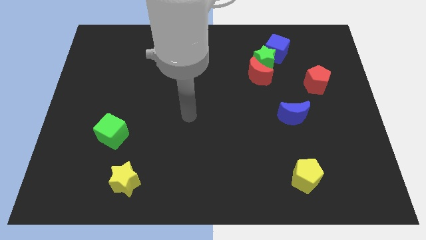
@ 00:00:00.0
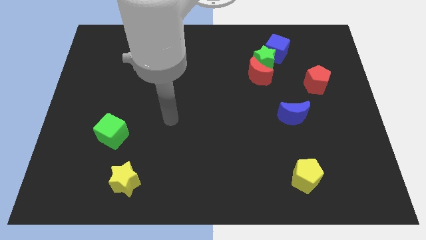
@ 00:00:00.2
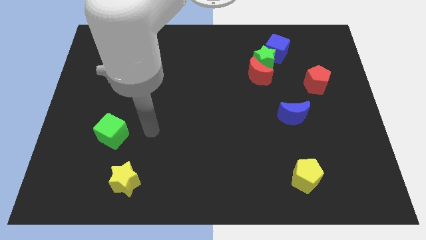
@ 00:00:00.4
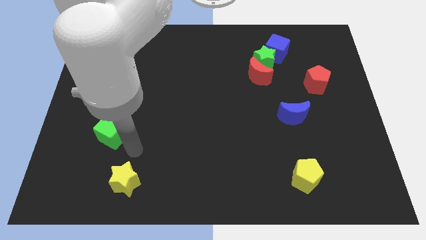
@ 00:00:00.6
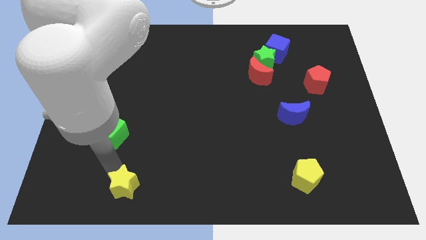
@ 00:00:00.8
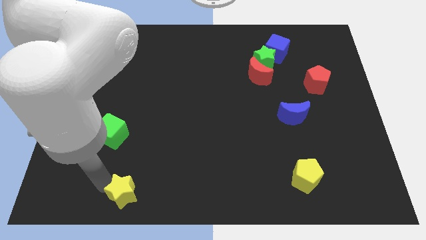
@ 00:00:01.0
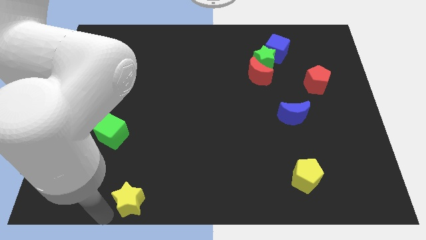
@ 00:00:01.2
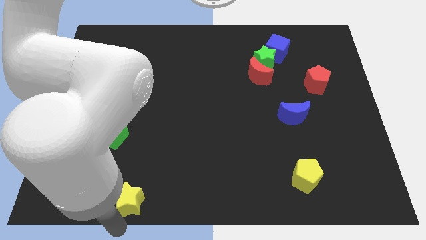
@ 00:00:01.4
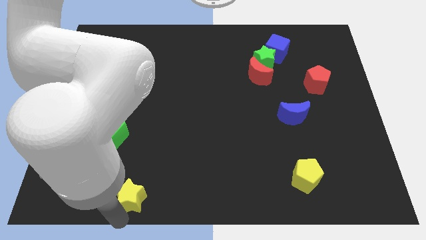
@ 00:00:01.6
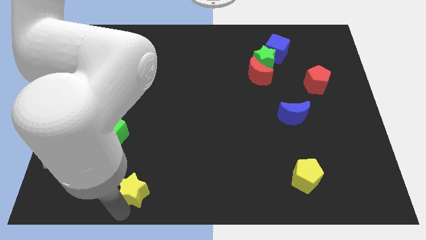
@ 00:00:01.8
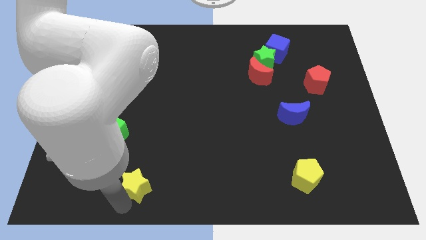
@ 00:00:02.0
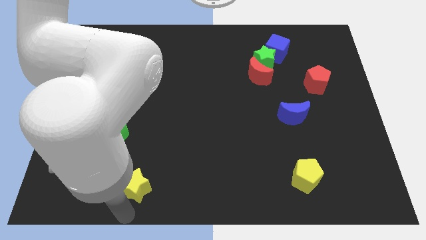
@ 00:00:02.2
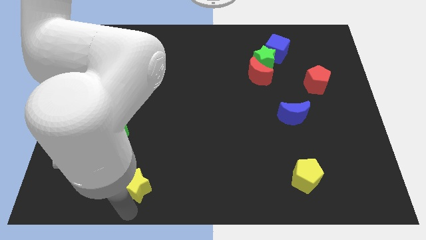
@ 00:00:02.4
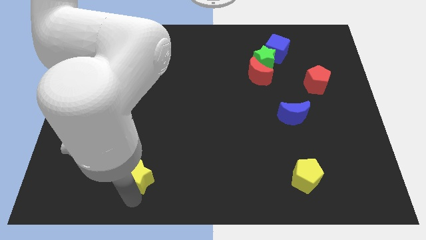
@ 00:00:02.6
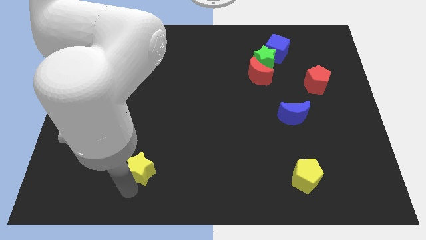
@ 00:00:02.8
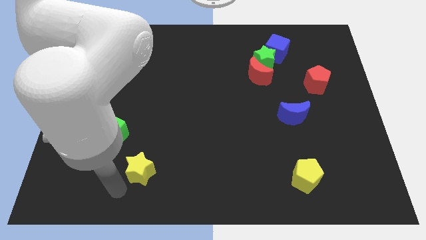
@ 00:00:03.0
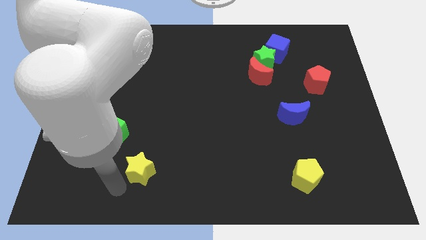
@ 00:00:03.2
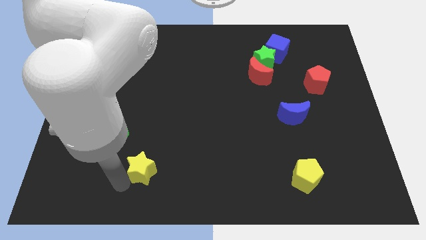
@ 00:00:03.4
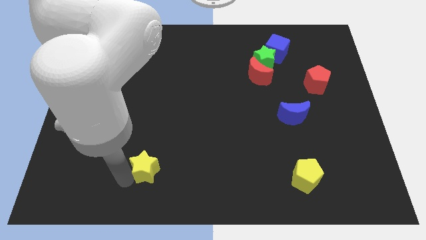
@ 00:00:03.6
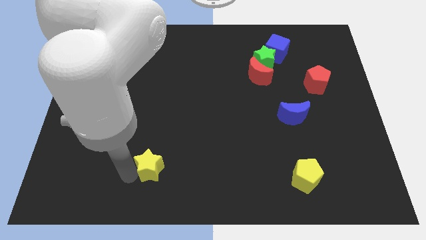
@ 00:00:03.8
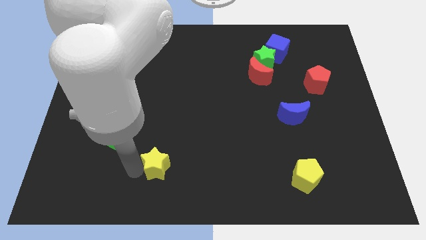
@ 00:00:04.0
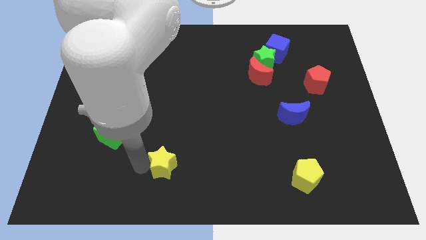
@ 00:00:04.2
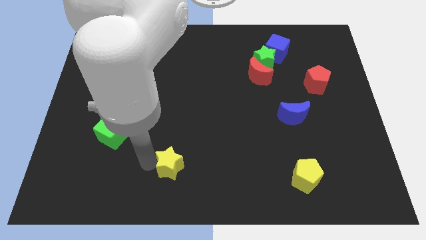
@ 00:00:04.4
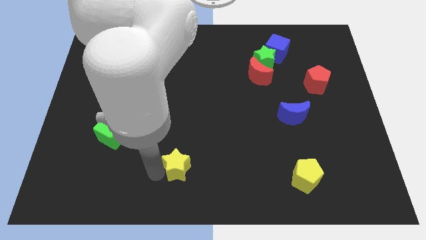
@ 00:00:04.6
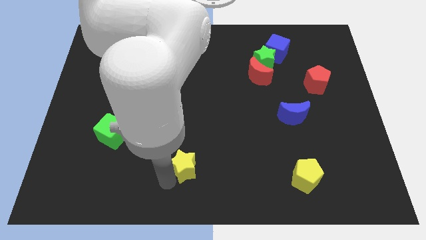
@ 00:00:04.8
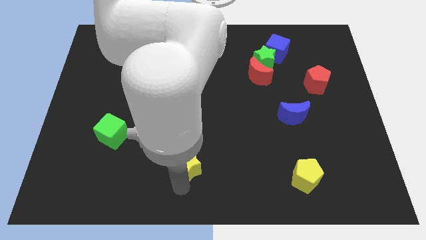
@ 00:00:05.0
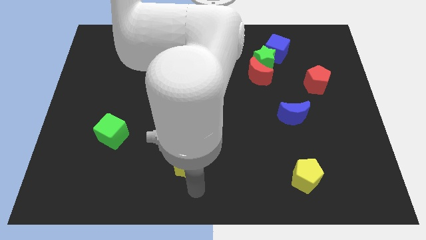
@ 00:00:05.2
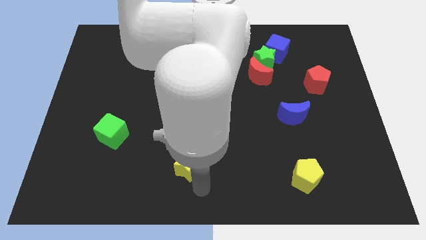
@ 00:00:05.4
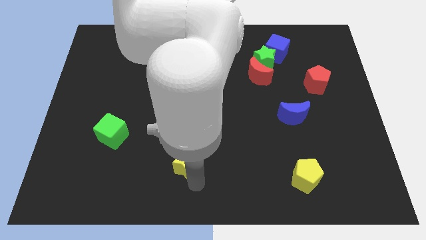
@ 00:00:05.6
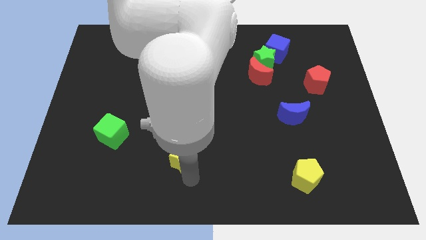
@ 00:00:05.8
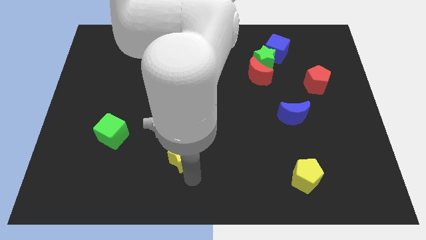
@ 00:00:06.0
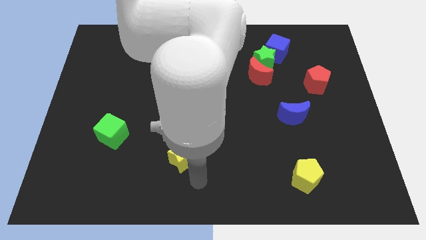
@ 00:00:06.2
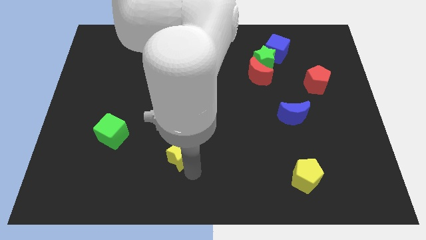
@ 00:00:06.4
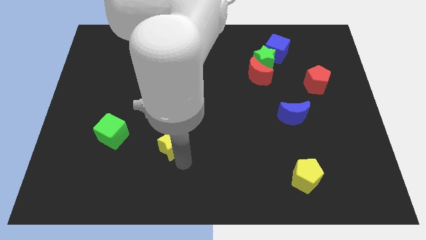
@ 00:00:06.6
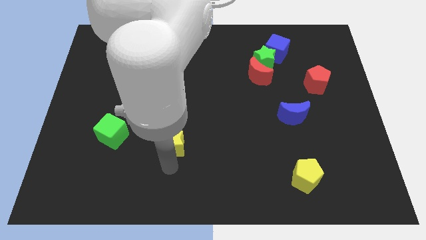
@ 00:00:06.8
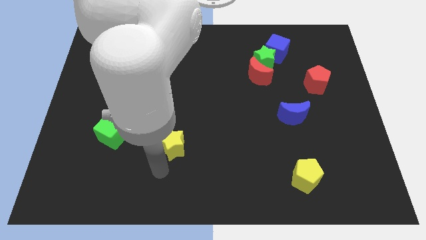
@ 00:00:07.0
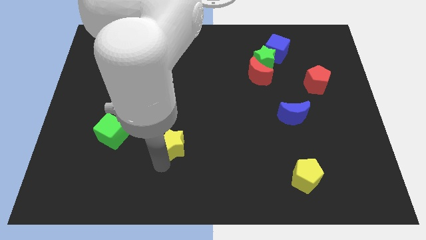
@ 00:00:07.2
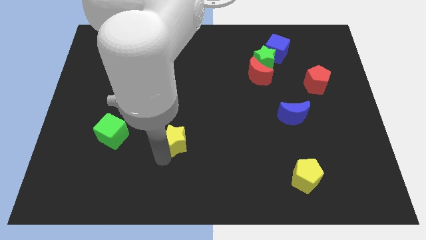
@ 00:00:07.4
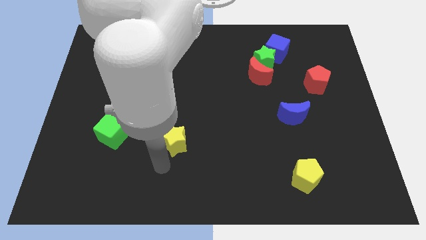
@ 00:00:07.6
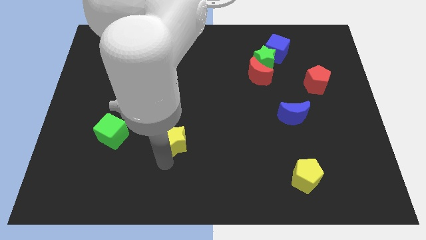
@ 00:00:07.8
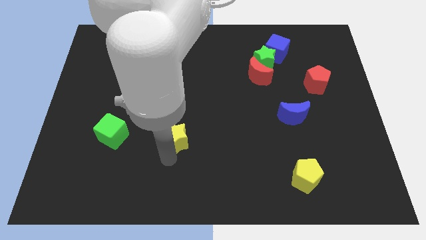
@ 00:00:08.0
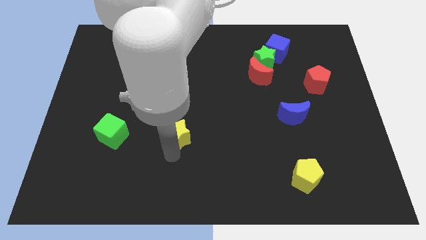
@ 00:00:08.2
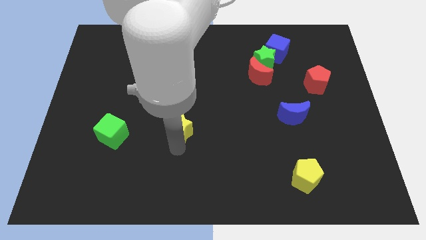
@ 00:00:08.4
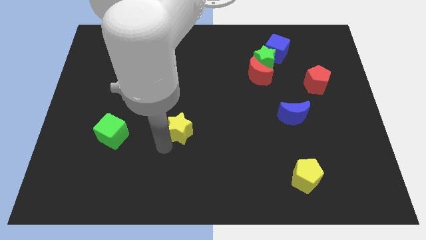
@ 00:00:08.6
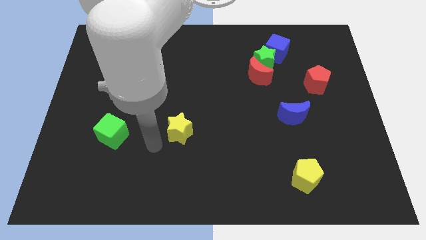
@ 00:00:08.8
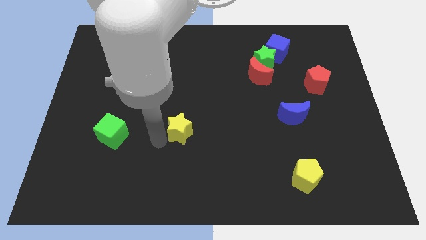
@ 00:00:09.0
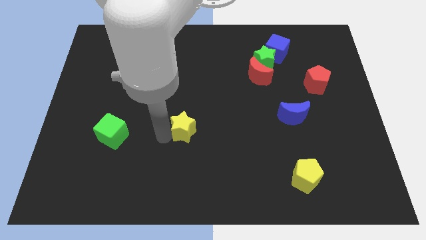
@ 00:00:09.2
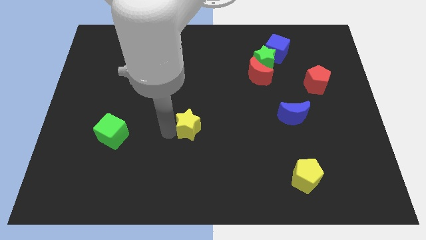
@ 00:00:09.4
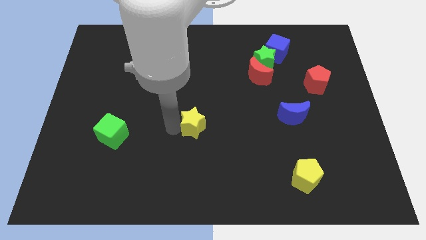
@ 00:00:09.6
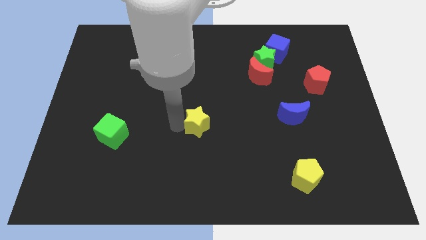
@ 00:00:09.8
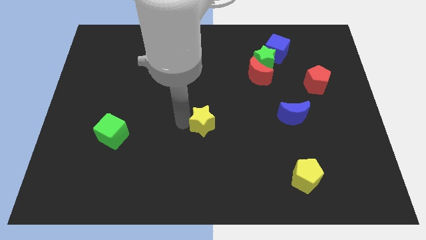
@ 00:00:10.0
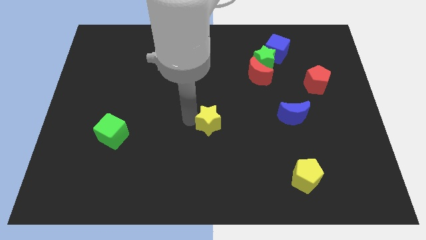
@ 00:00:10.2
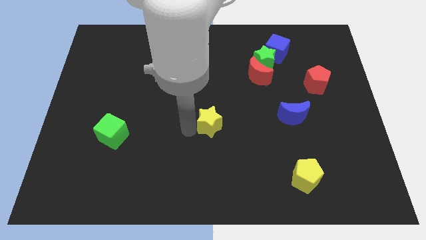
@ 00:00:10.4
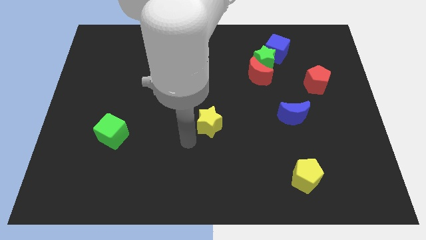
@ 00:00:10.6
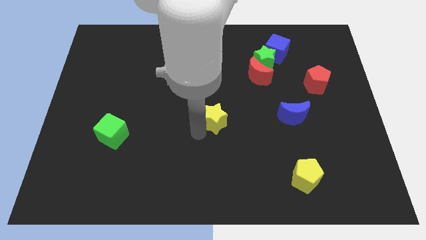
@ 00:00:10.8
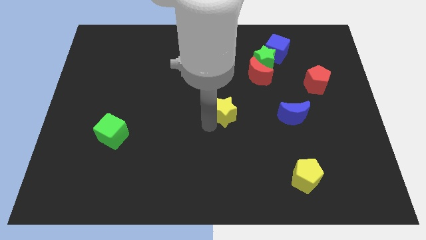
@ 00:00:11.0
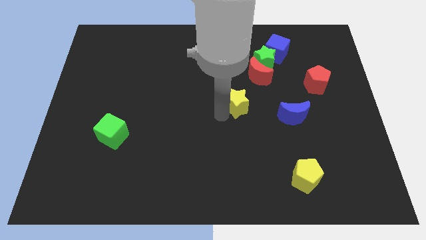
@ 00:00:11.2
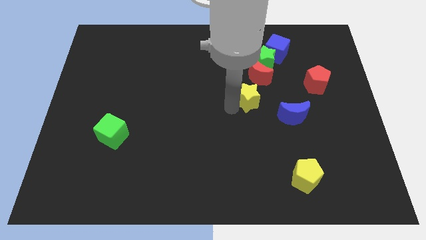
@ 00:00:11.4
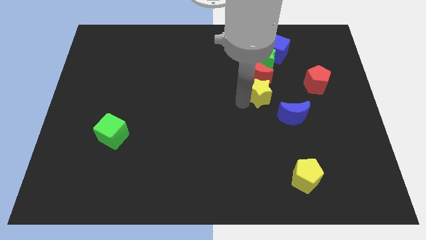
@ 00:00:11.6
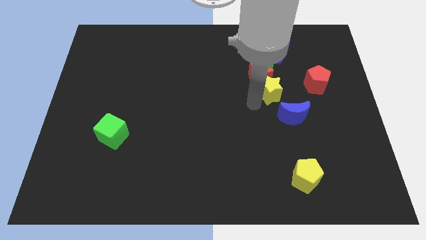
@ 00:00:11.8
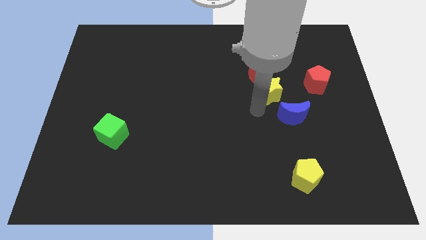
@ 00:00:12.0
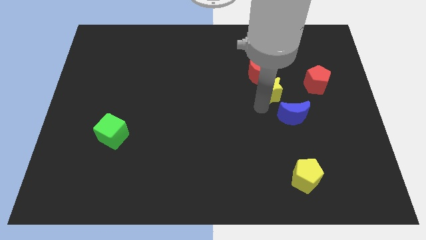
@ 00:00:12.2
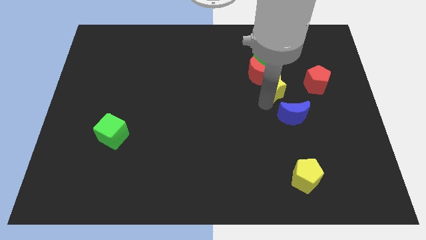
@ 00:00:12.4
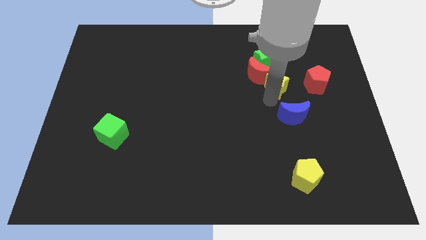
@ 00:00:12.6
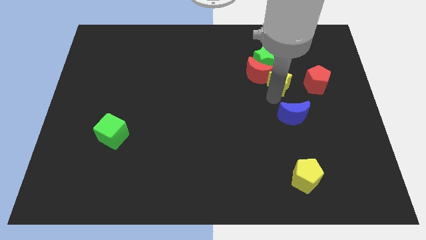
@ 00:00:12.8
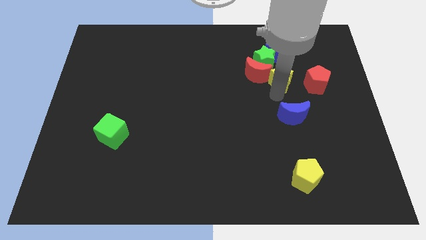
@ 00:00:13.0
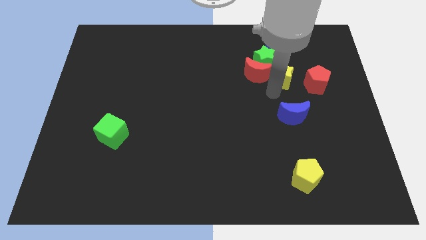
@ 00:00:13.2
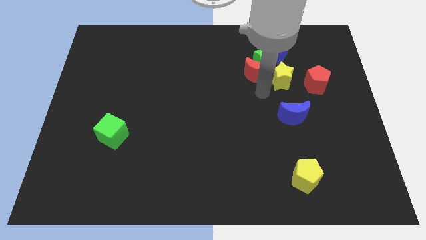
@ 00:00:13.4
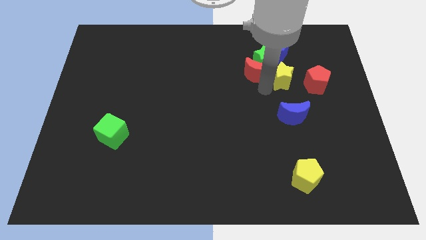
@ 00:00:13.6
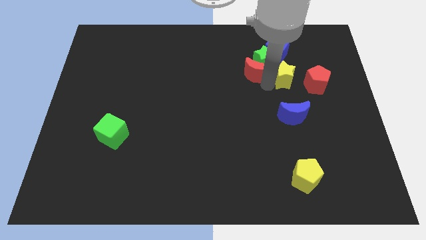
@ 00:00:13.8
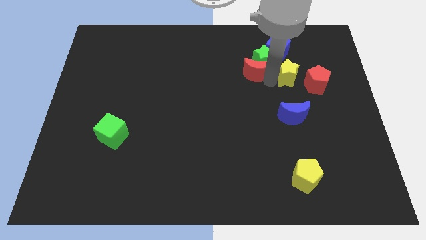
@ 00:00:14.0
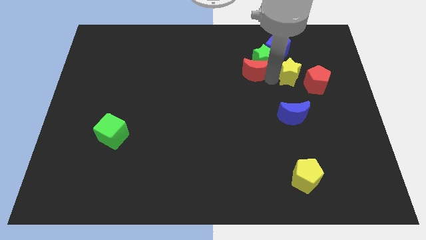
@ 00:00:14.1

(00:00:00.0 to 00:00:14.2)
move the yellow star to the bottom right of the blue cube
